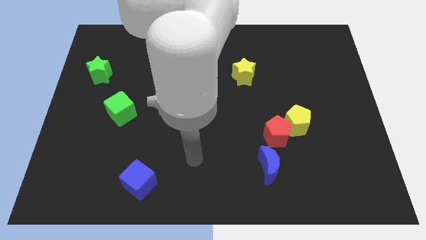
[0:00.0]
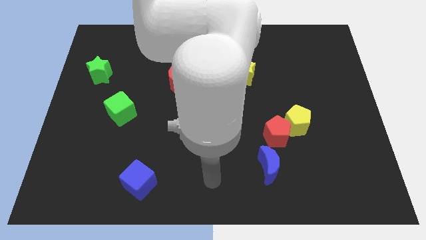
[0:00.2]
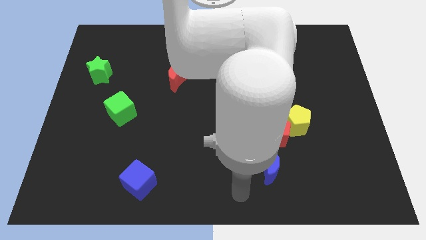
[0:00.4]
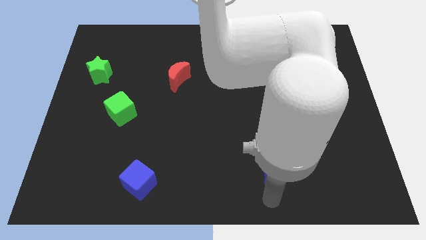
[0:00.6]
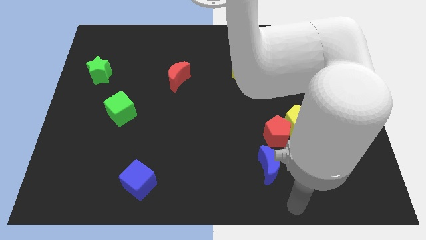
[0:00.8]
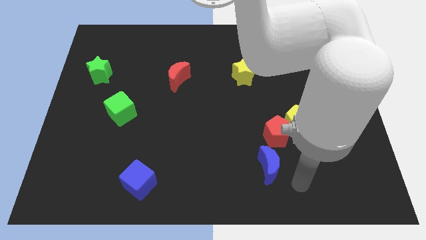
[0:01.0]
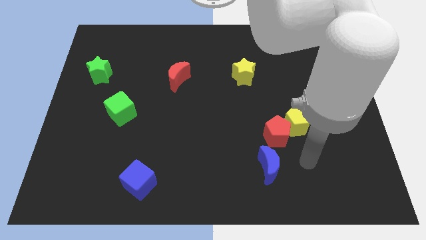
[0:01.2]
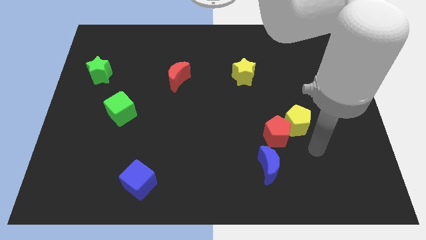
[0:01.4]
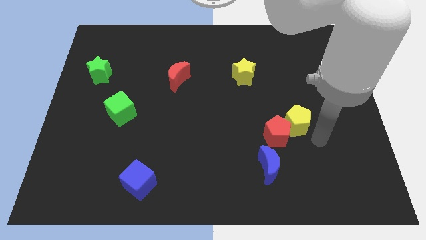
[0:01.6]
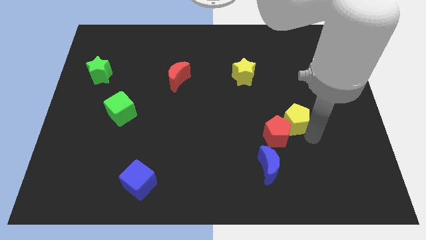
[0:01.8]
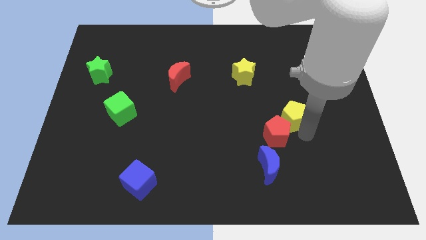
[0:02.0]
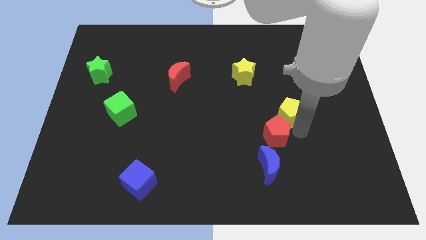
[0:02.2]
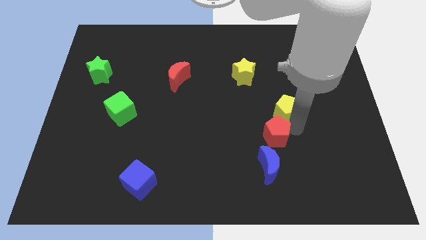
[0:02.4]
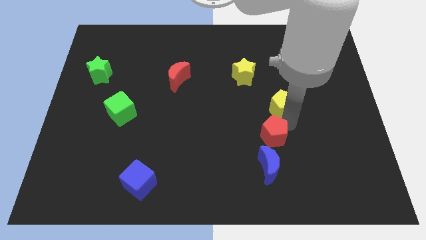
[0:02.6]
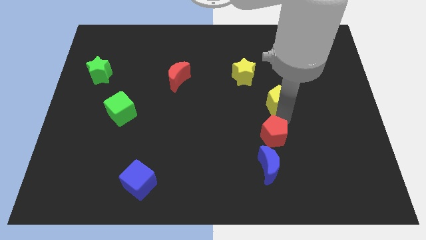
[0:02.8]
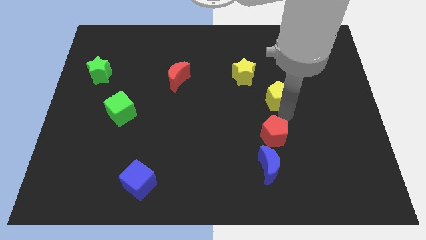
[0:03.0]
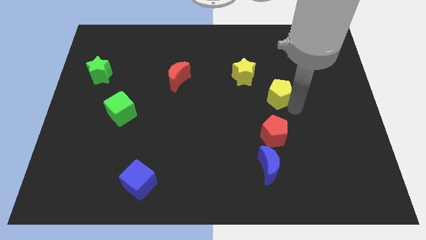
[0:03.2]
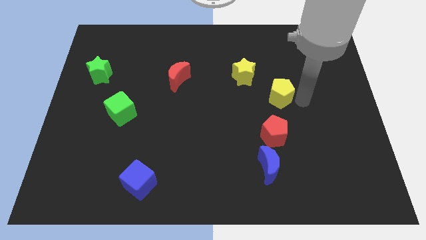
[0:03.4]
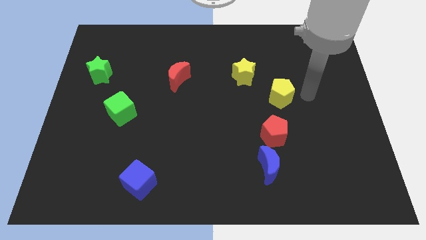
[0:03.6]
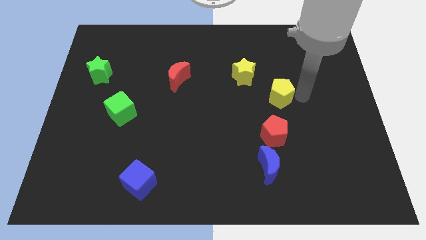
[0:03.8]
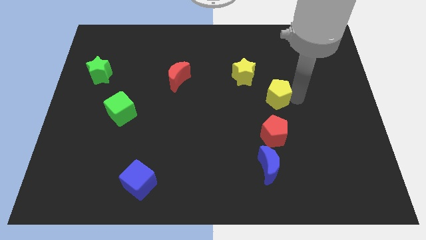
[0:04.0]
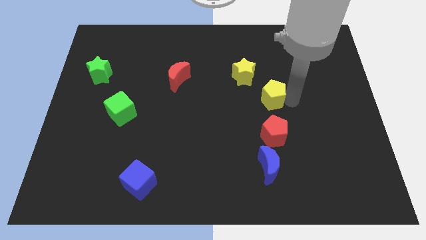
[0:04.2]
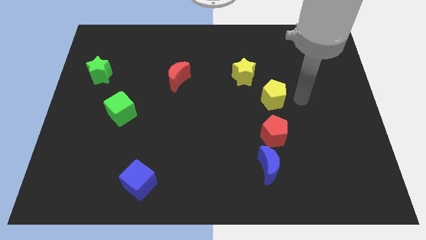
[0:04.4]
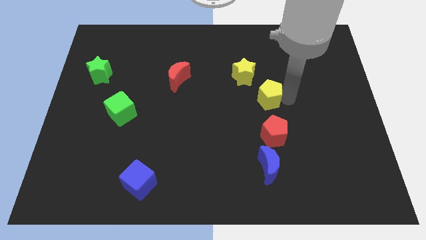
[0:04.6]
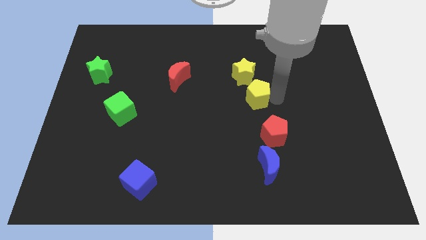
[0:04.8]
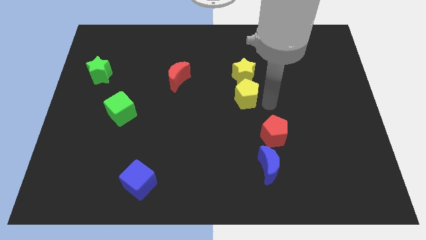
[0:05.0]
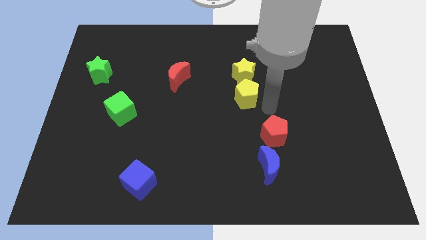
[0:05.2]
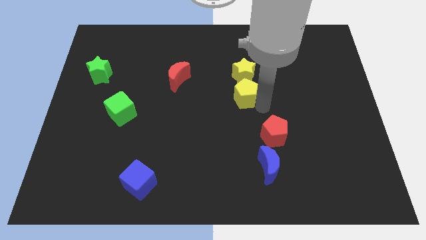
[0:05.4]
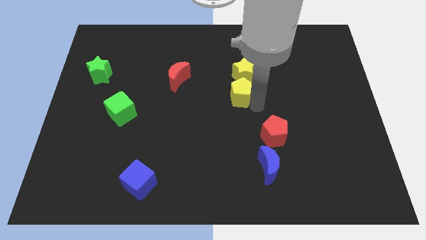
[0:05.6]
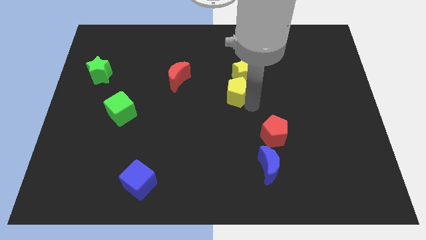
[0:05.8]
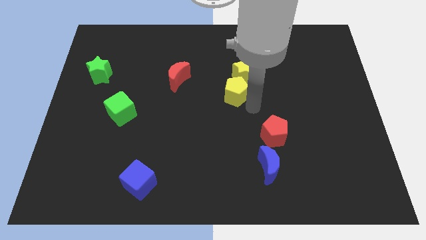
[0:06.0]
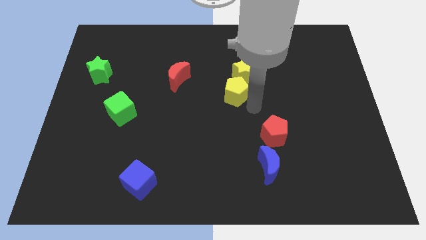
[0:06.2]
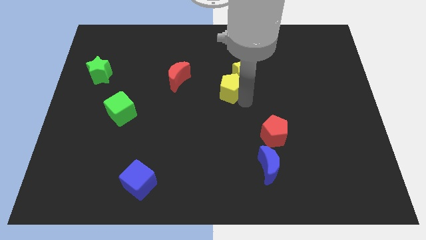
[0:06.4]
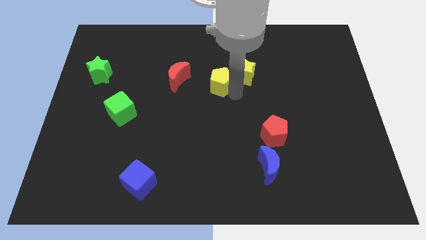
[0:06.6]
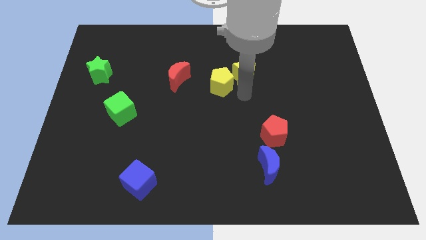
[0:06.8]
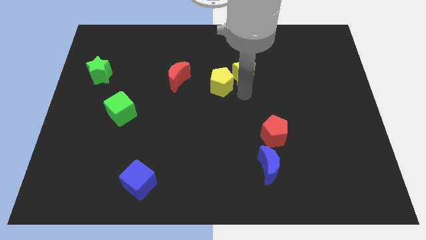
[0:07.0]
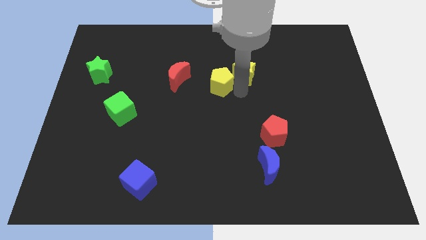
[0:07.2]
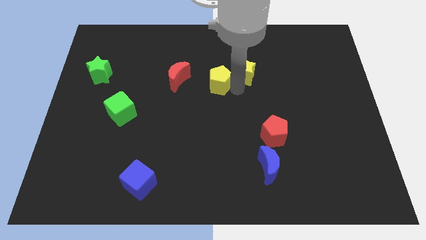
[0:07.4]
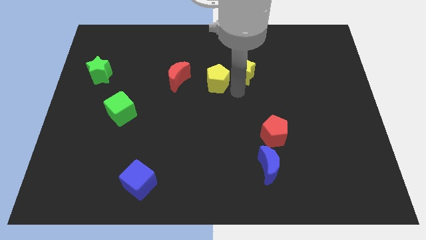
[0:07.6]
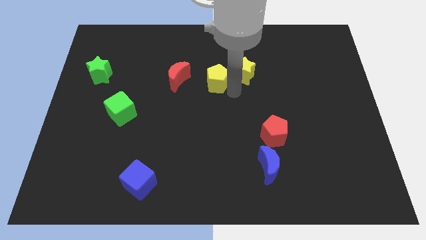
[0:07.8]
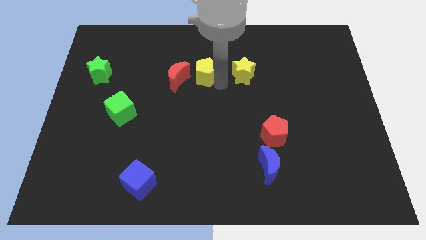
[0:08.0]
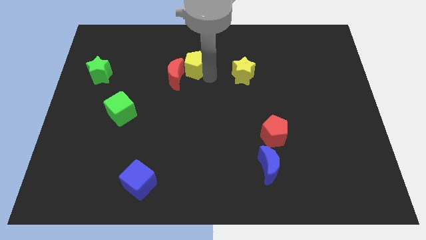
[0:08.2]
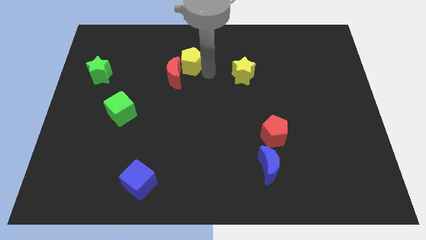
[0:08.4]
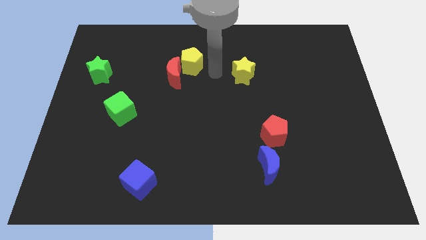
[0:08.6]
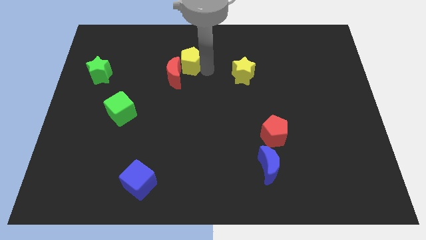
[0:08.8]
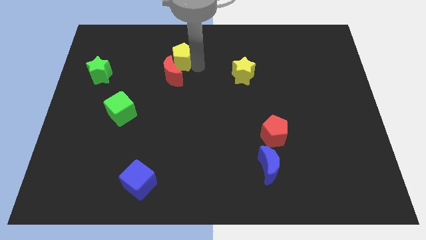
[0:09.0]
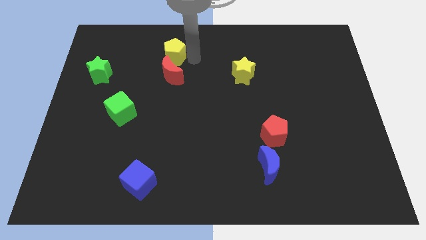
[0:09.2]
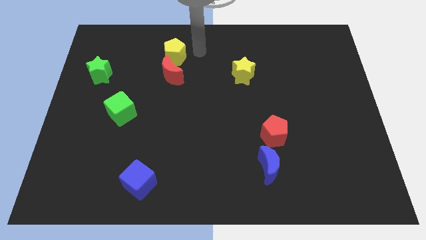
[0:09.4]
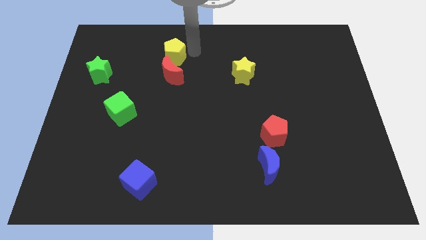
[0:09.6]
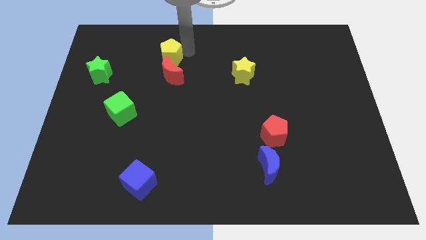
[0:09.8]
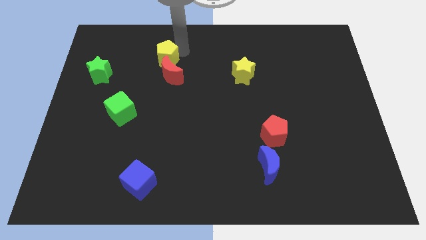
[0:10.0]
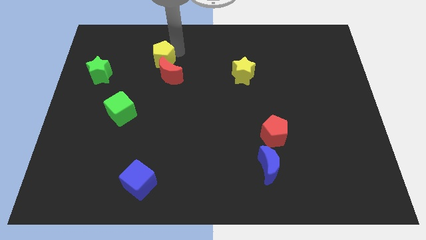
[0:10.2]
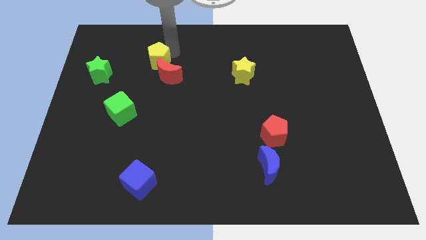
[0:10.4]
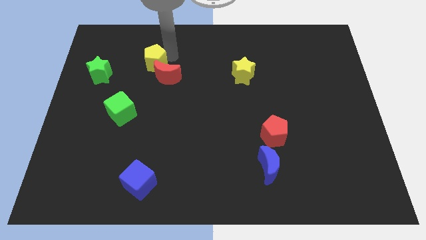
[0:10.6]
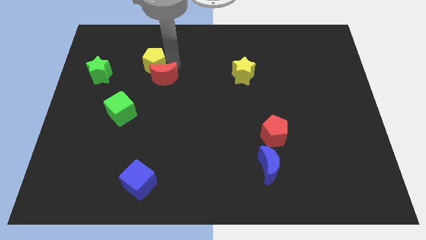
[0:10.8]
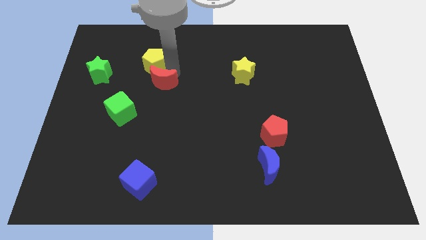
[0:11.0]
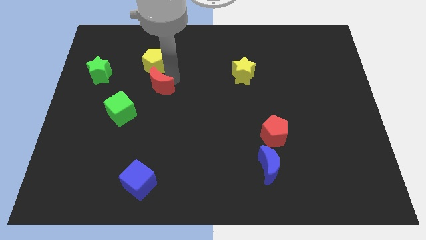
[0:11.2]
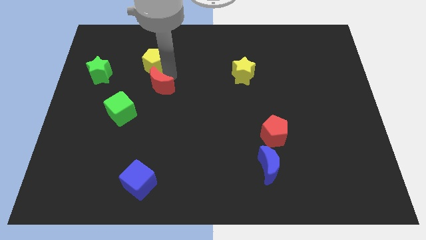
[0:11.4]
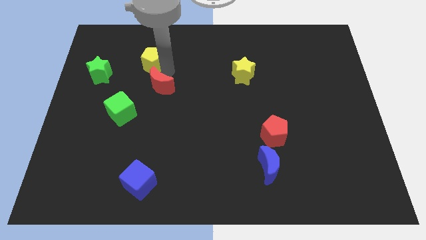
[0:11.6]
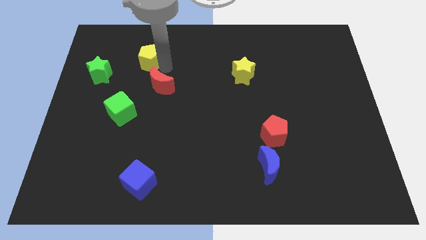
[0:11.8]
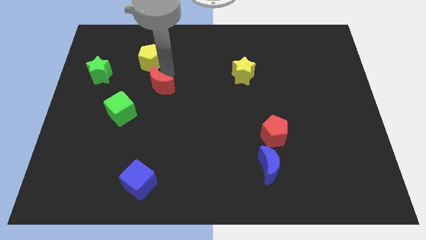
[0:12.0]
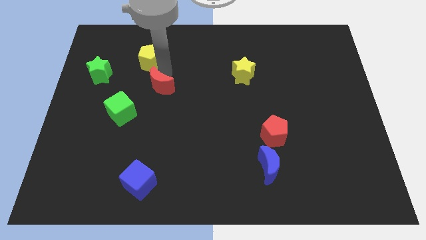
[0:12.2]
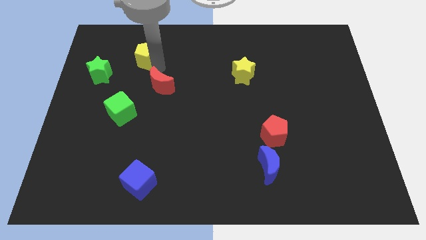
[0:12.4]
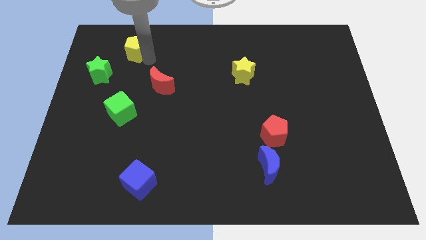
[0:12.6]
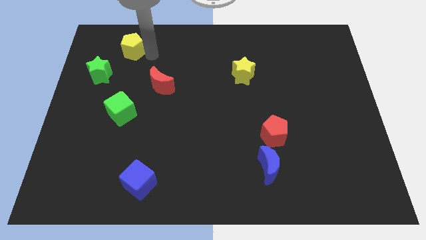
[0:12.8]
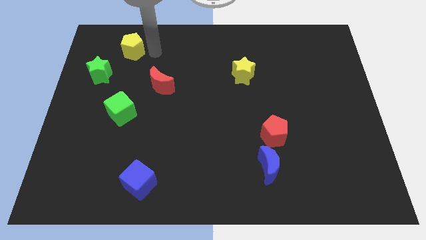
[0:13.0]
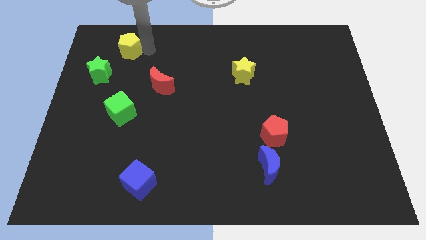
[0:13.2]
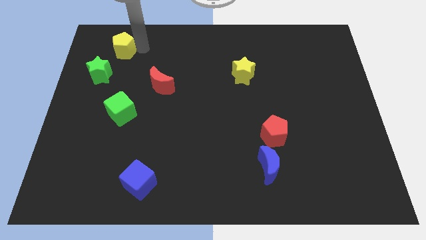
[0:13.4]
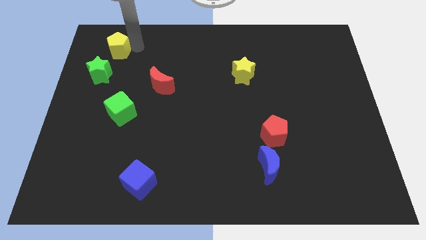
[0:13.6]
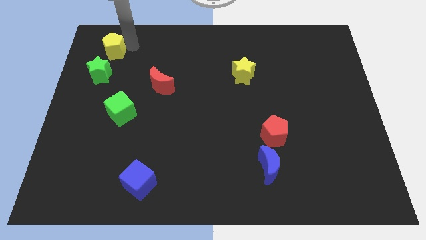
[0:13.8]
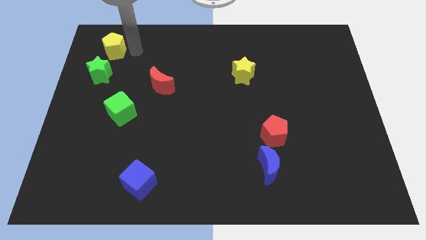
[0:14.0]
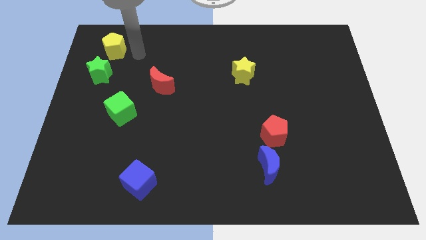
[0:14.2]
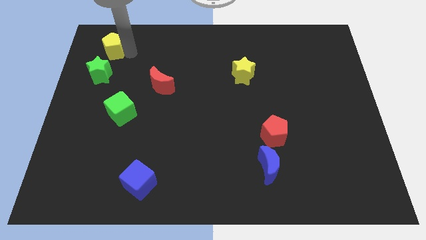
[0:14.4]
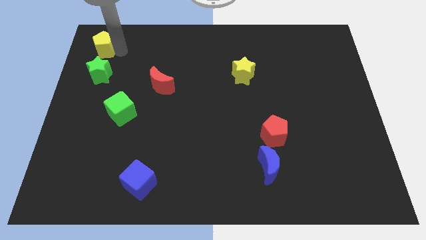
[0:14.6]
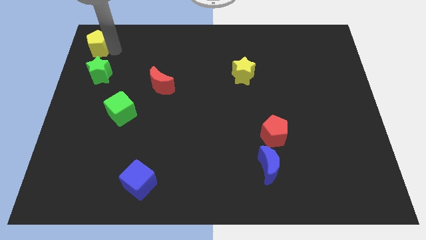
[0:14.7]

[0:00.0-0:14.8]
put the yellow pentagon to the top left corner
